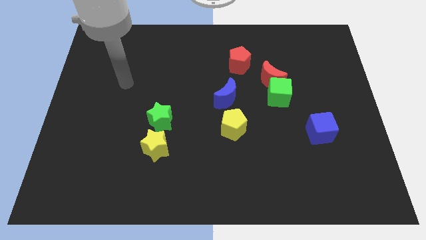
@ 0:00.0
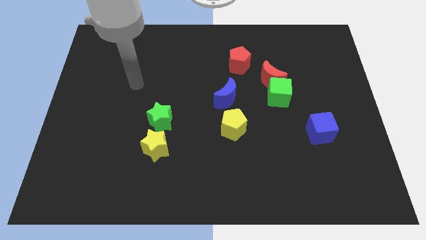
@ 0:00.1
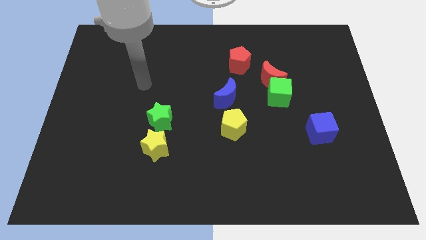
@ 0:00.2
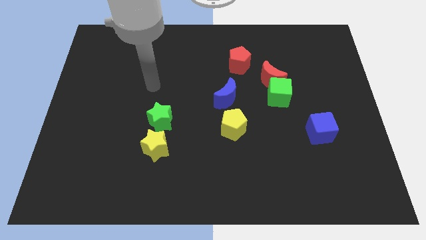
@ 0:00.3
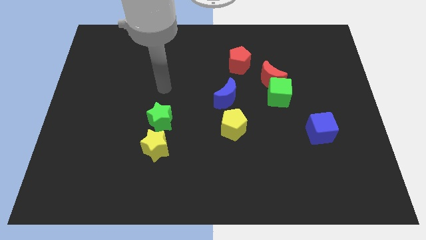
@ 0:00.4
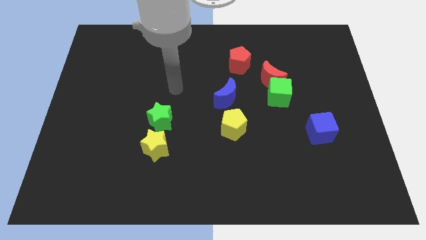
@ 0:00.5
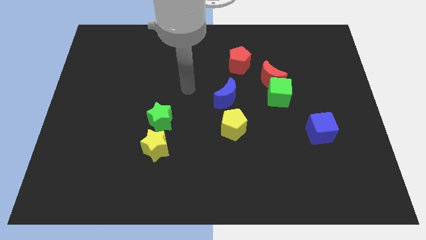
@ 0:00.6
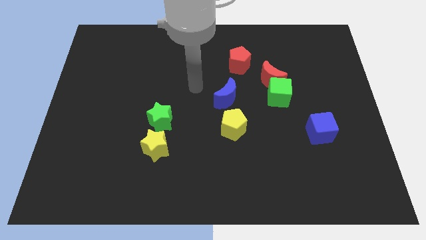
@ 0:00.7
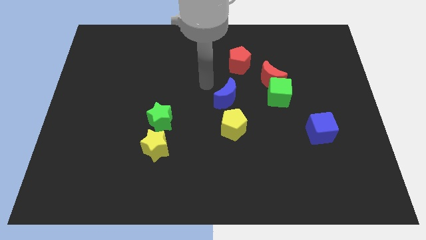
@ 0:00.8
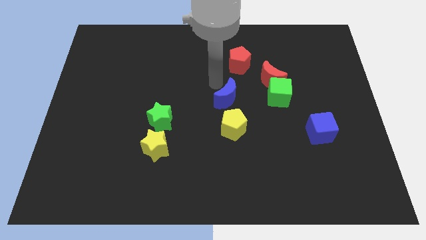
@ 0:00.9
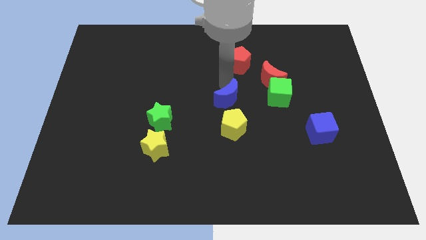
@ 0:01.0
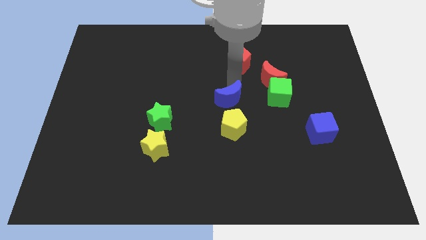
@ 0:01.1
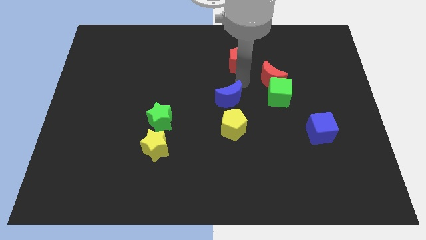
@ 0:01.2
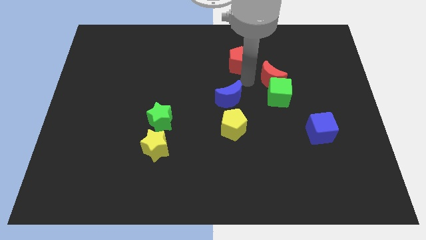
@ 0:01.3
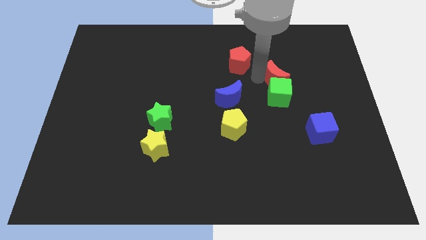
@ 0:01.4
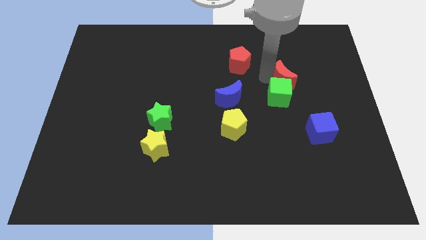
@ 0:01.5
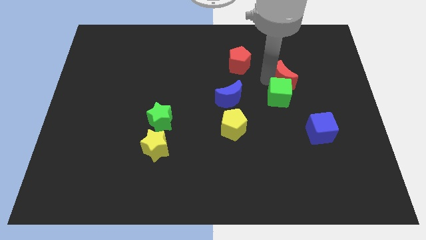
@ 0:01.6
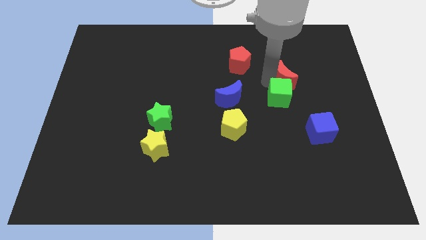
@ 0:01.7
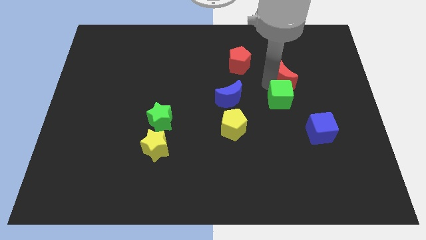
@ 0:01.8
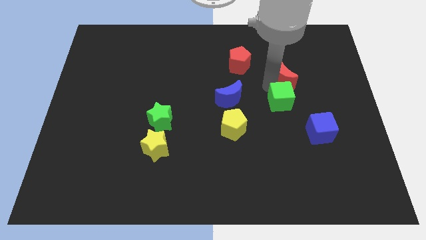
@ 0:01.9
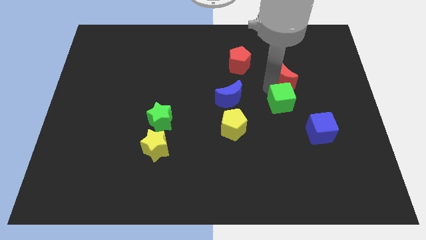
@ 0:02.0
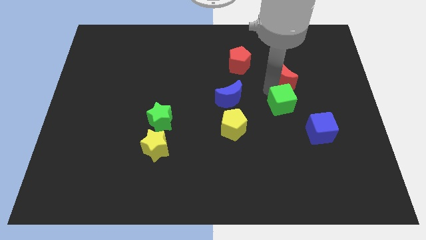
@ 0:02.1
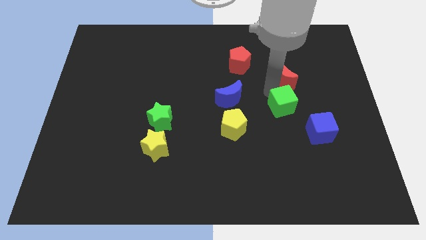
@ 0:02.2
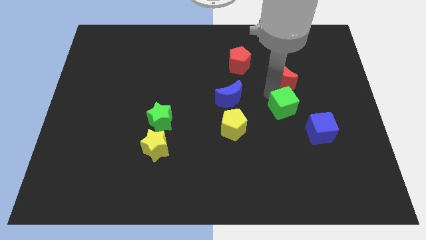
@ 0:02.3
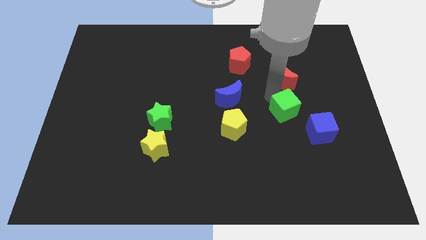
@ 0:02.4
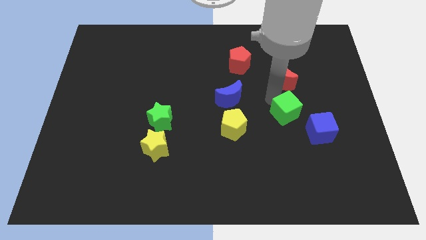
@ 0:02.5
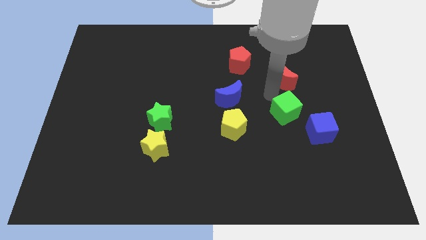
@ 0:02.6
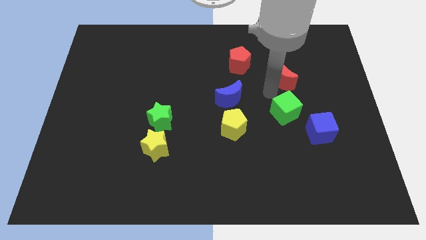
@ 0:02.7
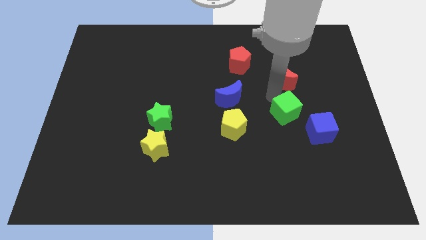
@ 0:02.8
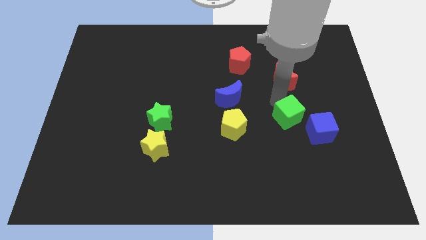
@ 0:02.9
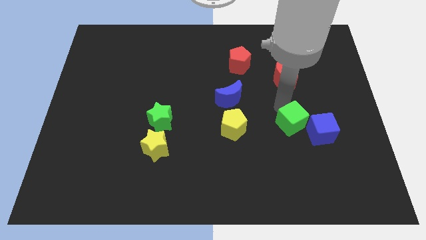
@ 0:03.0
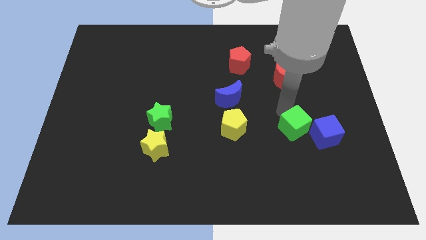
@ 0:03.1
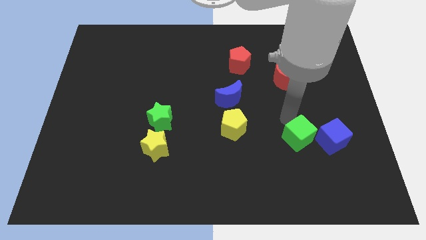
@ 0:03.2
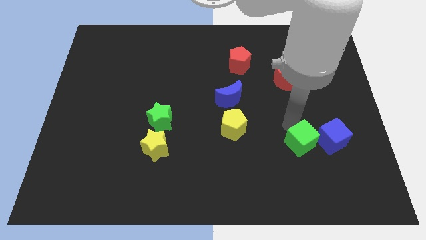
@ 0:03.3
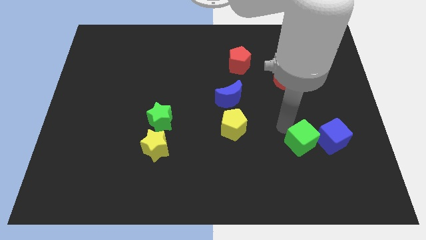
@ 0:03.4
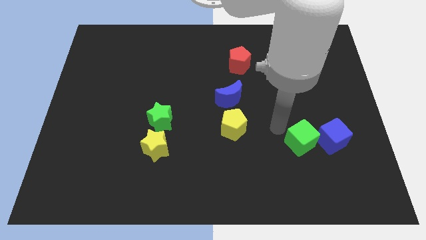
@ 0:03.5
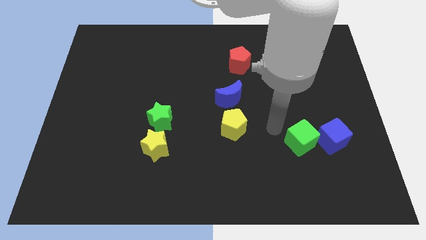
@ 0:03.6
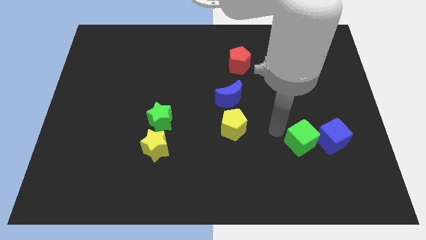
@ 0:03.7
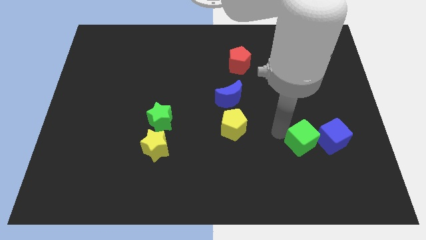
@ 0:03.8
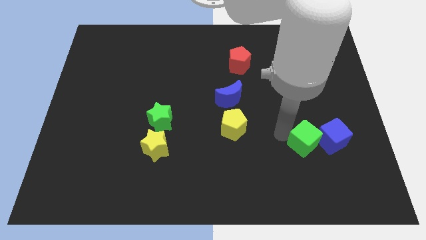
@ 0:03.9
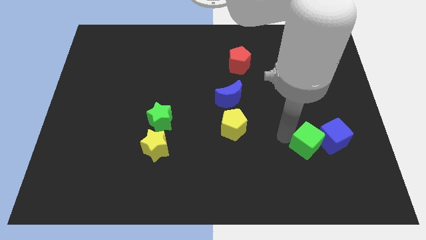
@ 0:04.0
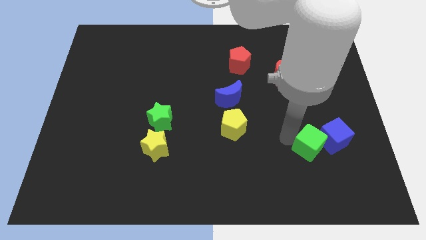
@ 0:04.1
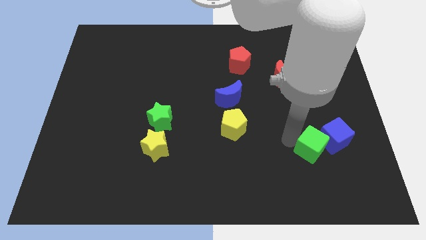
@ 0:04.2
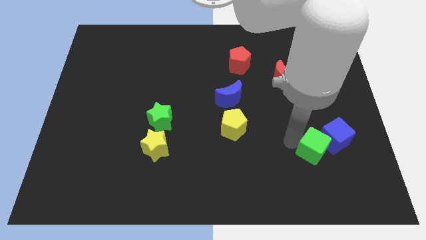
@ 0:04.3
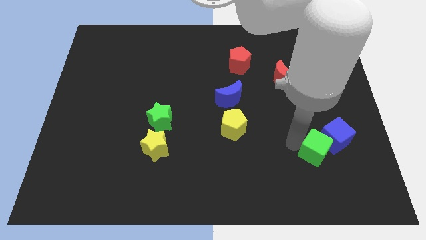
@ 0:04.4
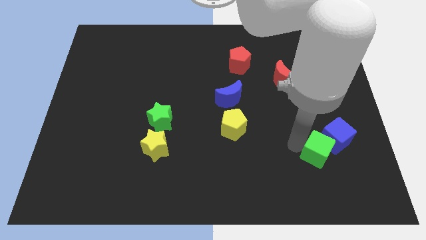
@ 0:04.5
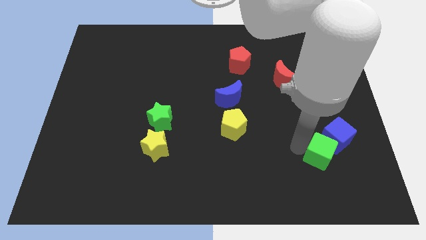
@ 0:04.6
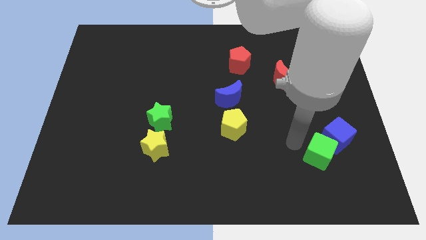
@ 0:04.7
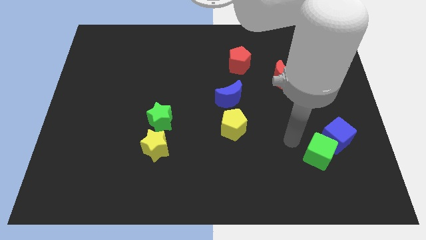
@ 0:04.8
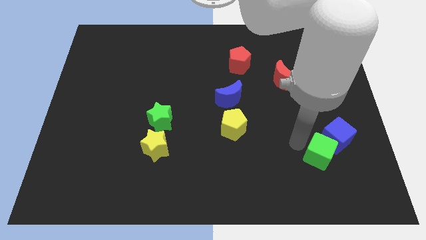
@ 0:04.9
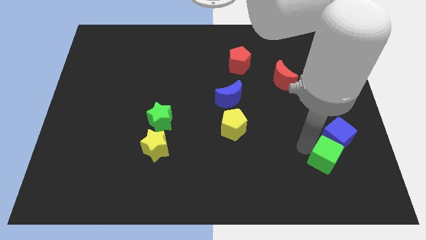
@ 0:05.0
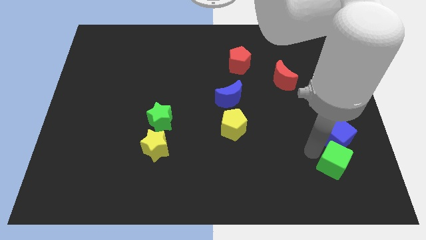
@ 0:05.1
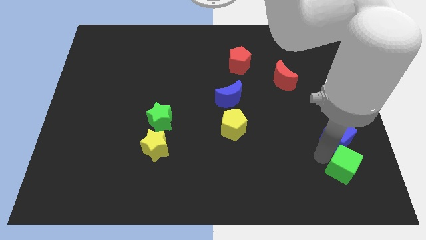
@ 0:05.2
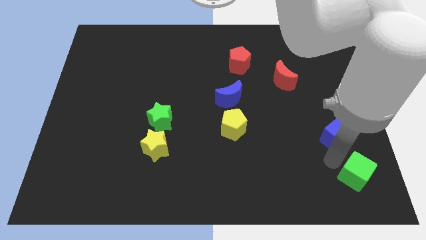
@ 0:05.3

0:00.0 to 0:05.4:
push the green cube to the bottom right

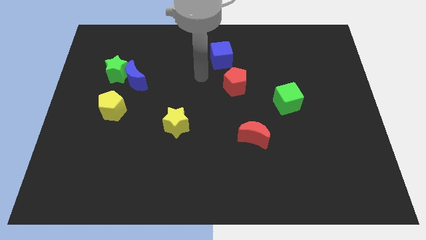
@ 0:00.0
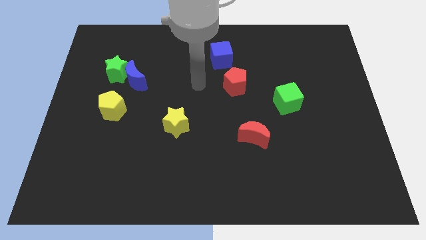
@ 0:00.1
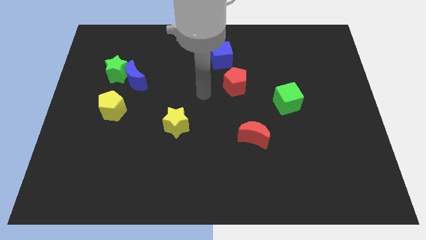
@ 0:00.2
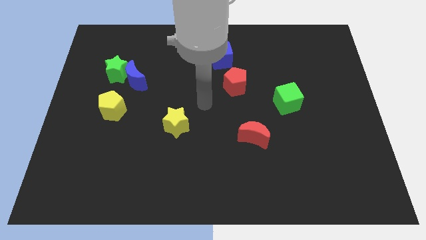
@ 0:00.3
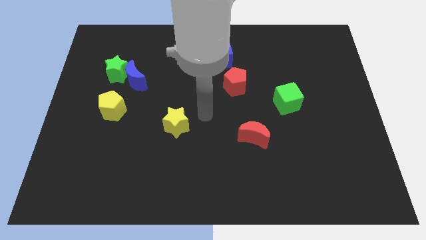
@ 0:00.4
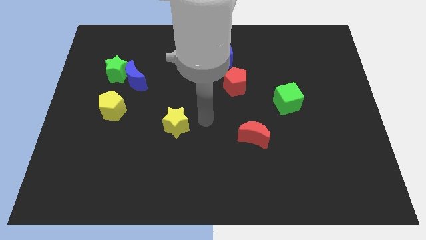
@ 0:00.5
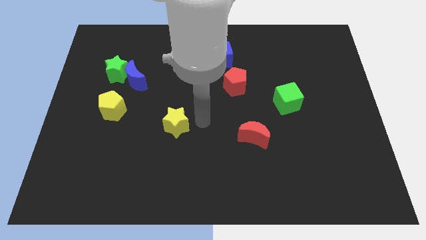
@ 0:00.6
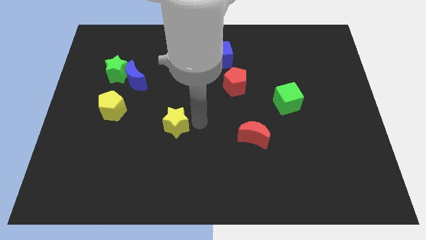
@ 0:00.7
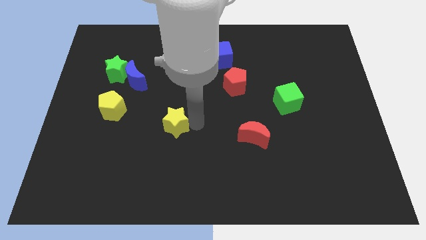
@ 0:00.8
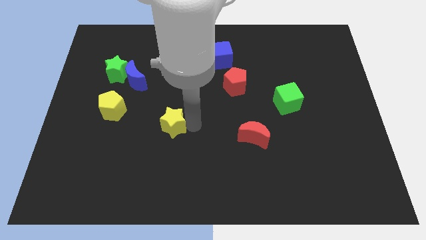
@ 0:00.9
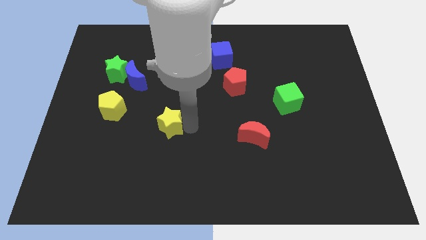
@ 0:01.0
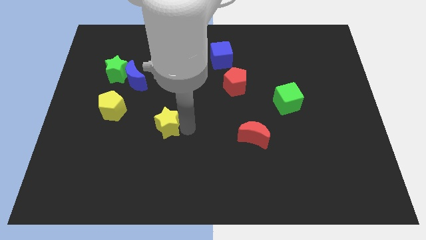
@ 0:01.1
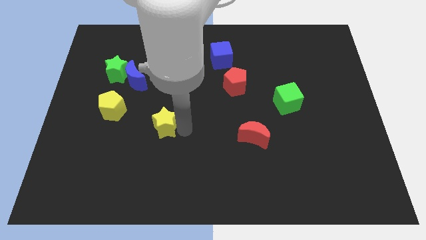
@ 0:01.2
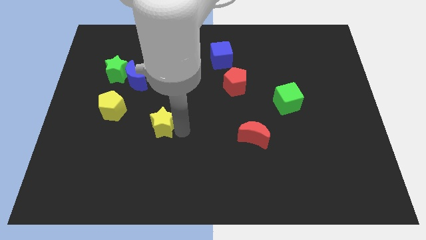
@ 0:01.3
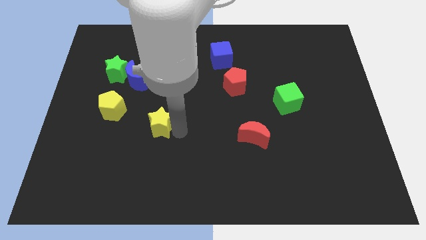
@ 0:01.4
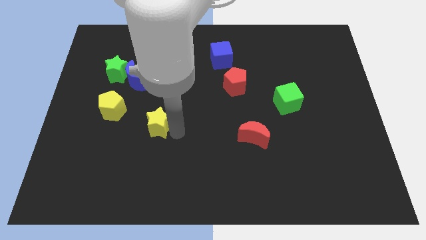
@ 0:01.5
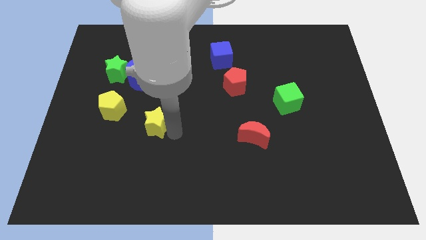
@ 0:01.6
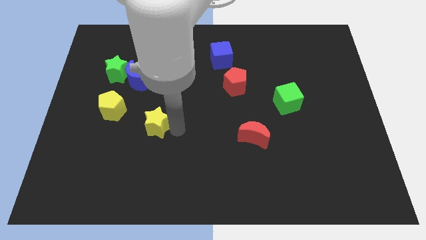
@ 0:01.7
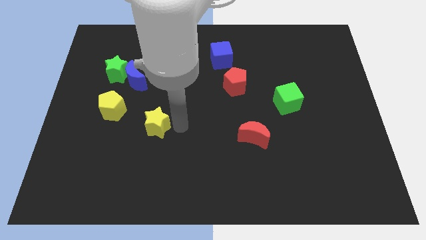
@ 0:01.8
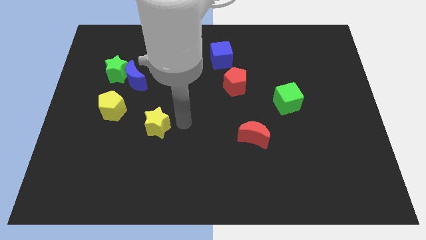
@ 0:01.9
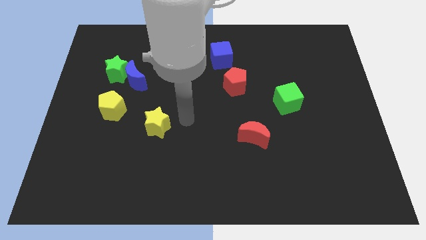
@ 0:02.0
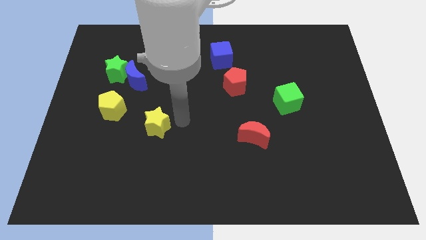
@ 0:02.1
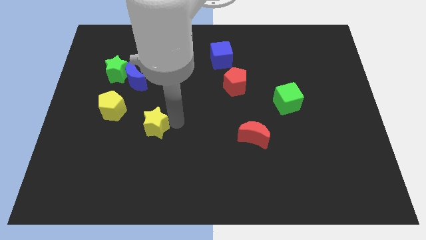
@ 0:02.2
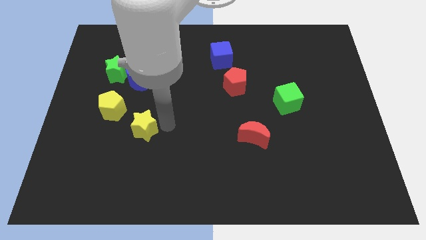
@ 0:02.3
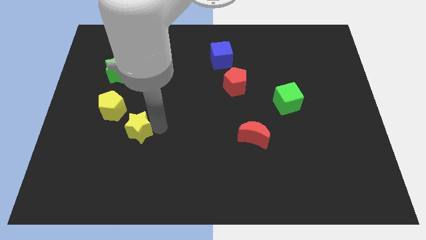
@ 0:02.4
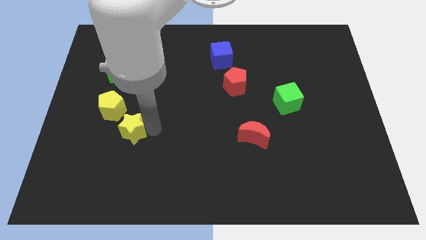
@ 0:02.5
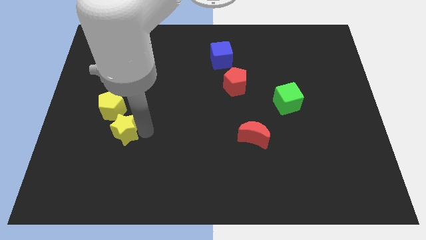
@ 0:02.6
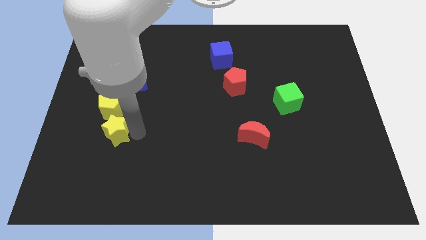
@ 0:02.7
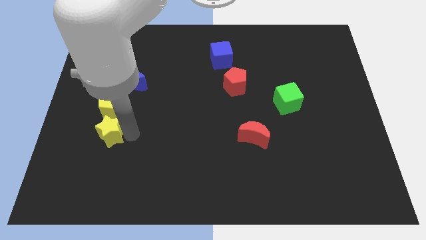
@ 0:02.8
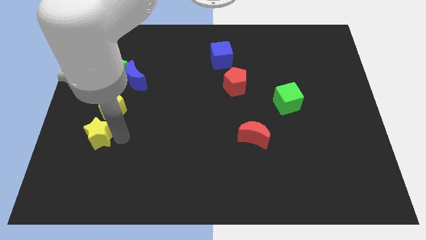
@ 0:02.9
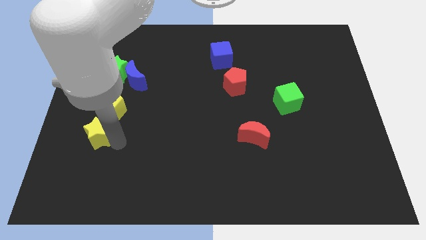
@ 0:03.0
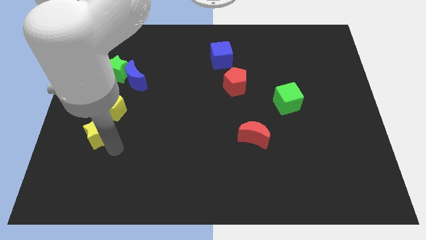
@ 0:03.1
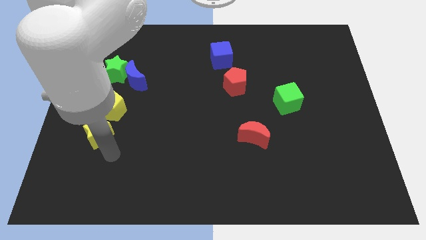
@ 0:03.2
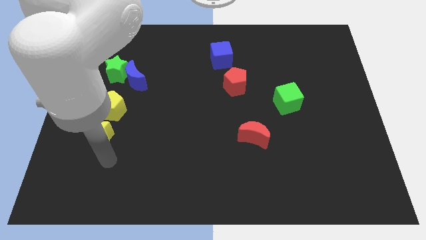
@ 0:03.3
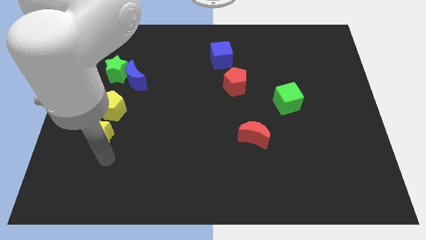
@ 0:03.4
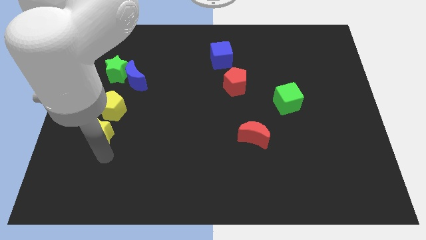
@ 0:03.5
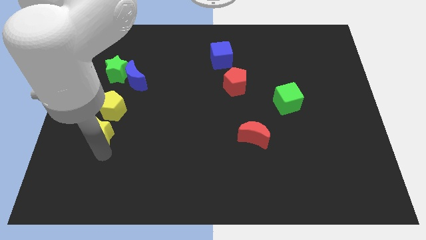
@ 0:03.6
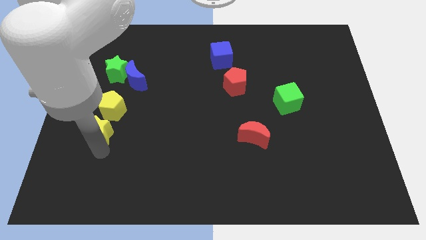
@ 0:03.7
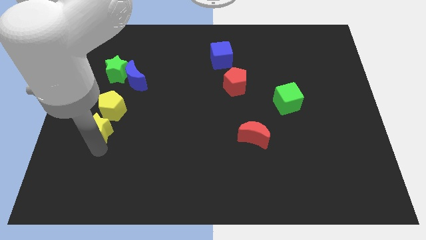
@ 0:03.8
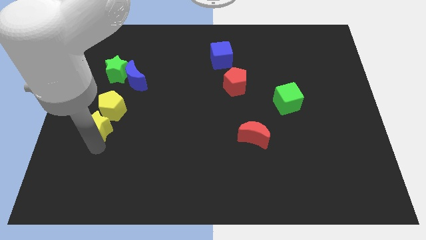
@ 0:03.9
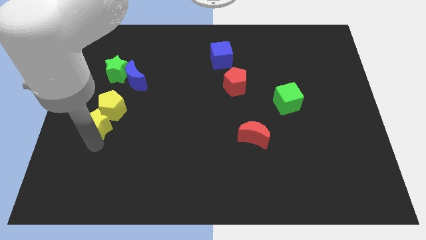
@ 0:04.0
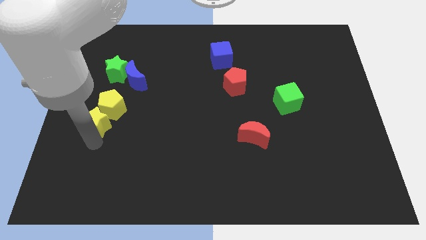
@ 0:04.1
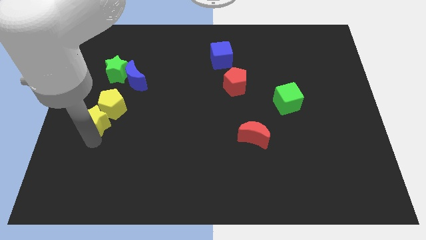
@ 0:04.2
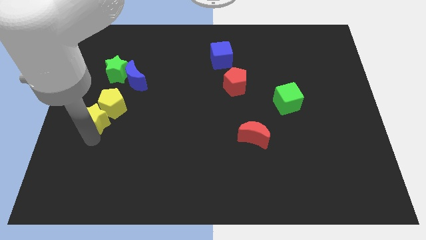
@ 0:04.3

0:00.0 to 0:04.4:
slide the yellow star to the center left
